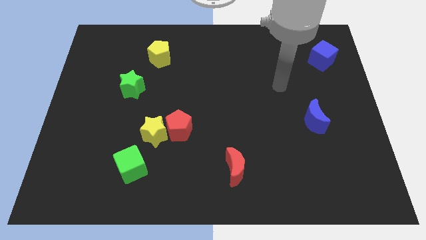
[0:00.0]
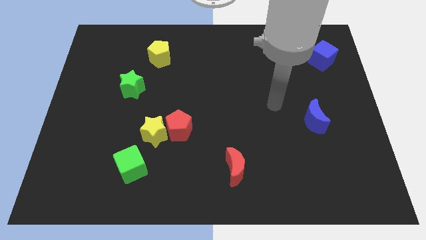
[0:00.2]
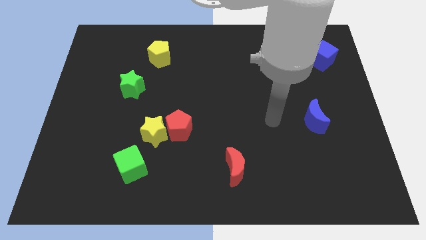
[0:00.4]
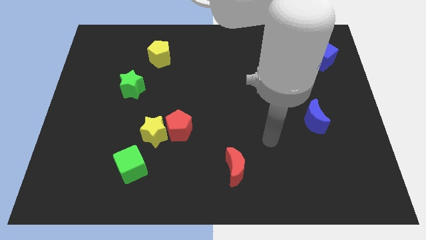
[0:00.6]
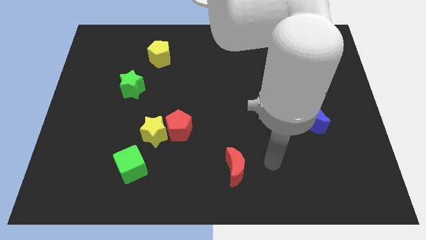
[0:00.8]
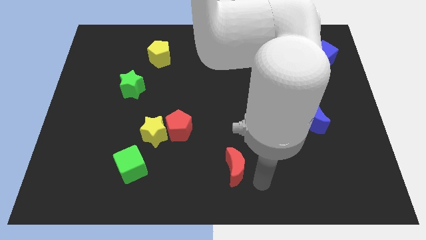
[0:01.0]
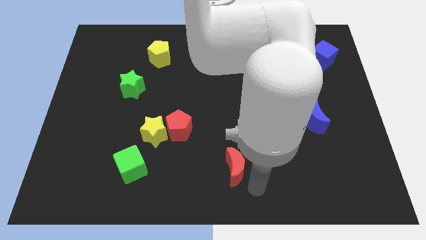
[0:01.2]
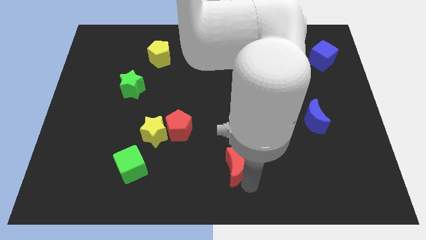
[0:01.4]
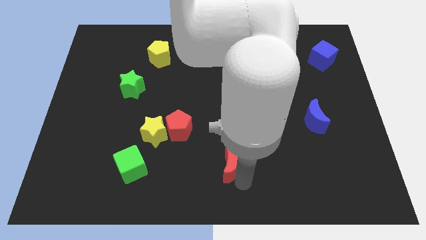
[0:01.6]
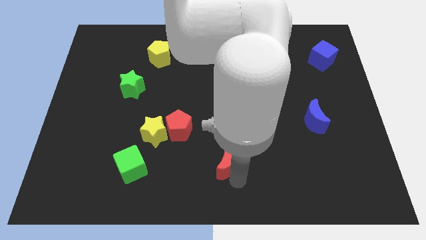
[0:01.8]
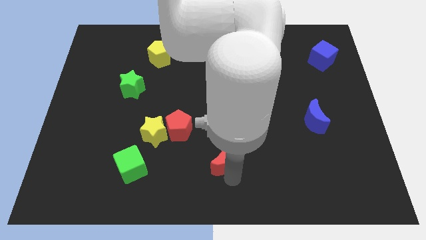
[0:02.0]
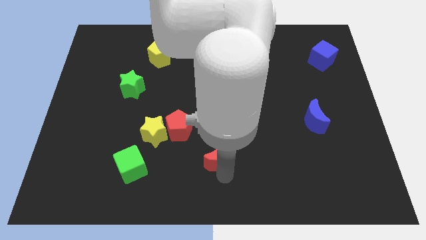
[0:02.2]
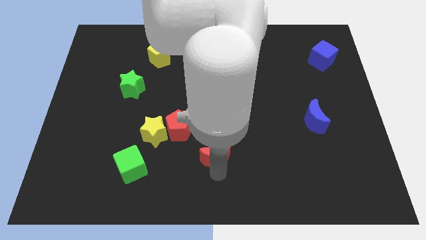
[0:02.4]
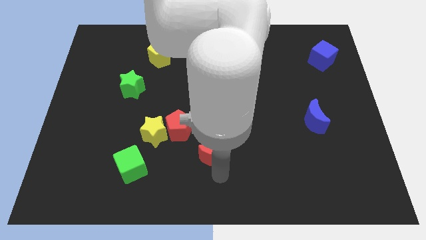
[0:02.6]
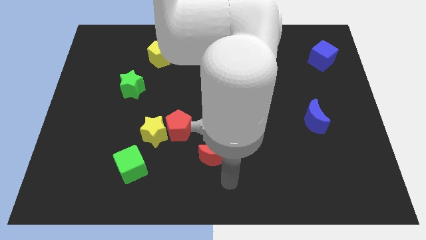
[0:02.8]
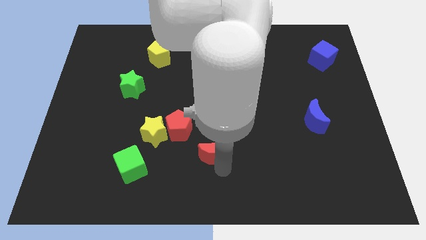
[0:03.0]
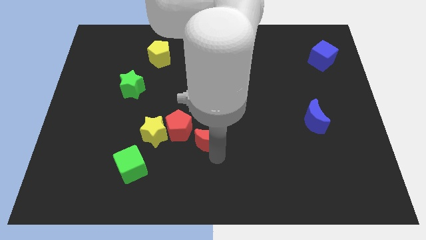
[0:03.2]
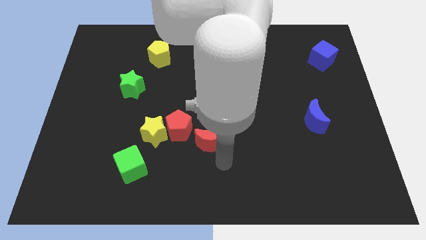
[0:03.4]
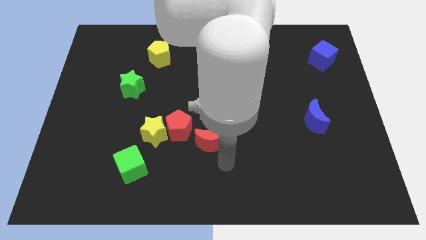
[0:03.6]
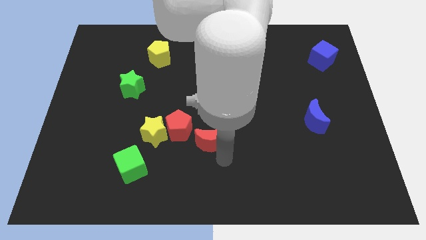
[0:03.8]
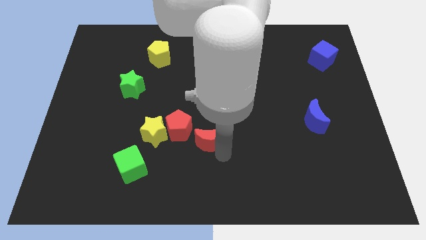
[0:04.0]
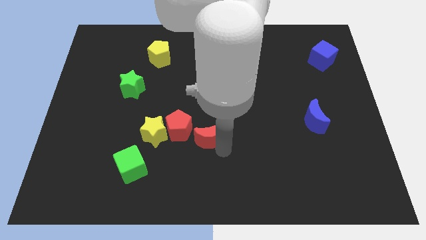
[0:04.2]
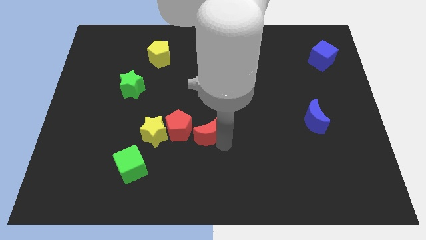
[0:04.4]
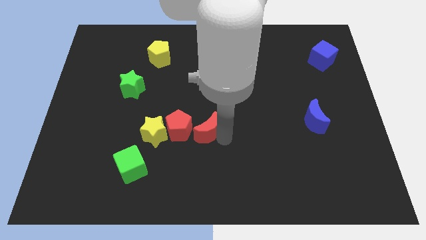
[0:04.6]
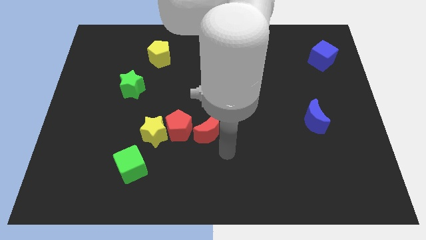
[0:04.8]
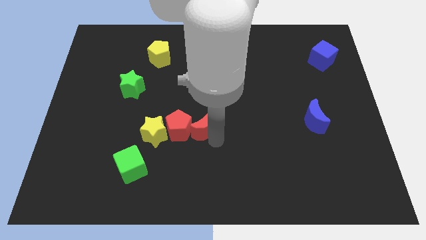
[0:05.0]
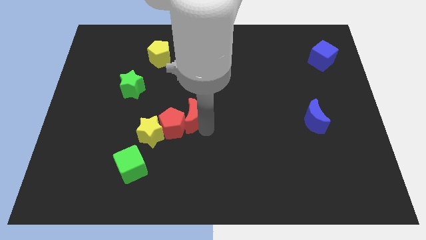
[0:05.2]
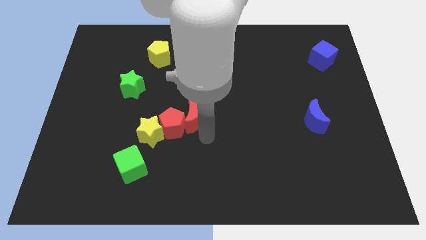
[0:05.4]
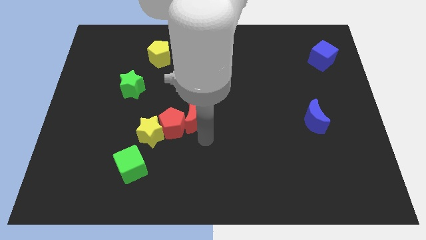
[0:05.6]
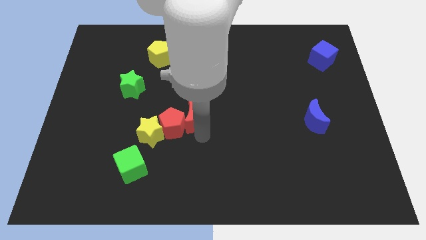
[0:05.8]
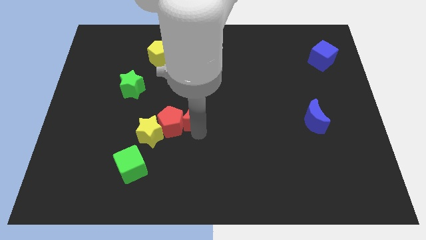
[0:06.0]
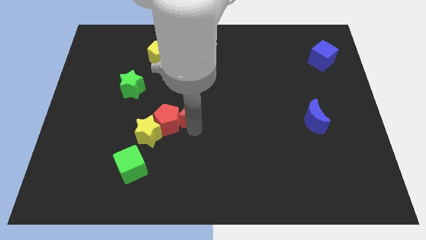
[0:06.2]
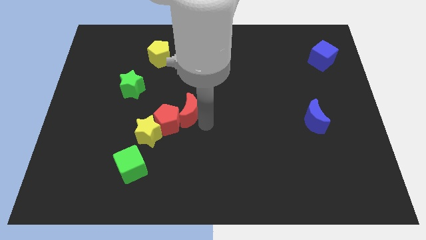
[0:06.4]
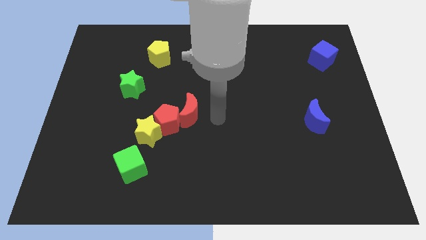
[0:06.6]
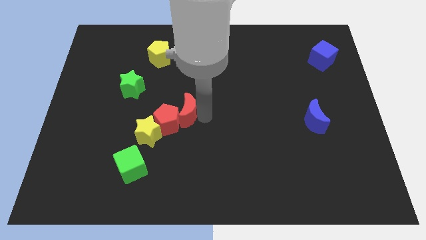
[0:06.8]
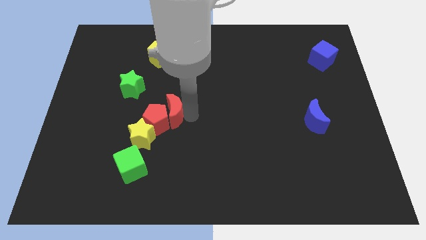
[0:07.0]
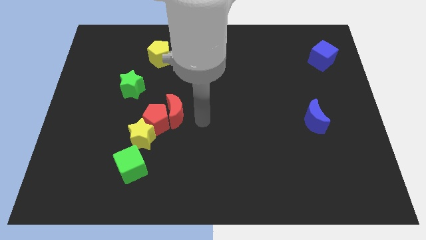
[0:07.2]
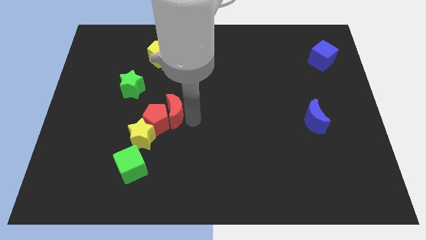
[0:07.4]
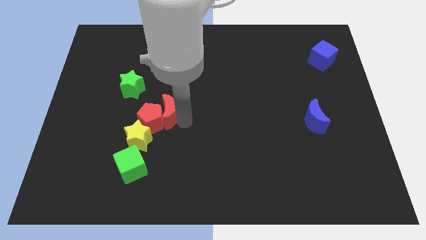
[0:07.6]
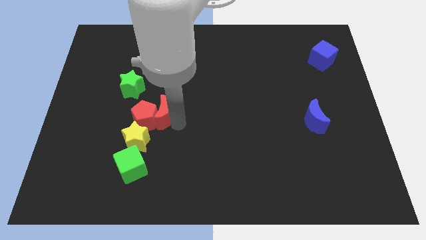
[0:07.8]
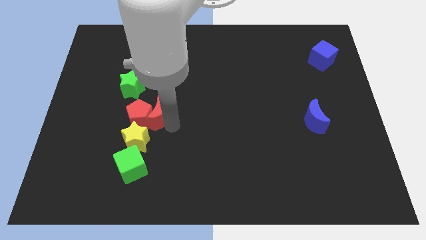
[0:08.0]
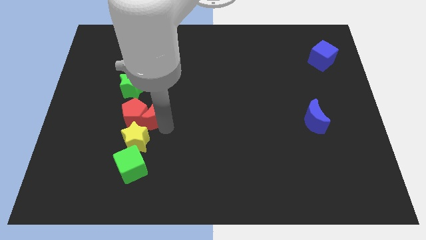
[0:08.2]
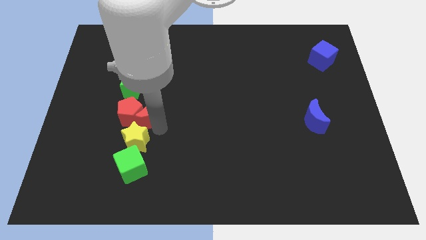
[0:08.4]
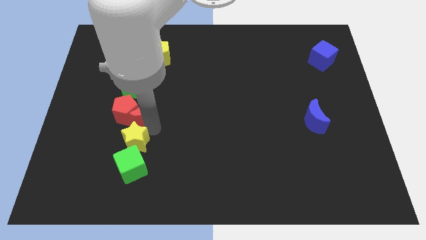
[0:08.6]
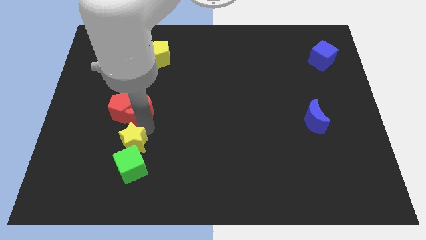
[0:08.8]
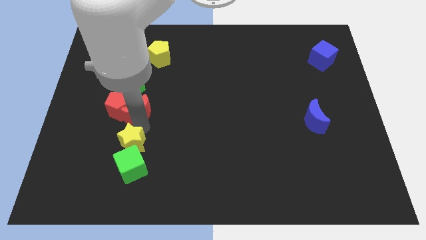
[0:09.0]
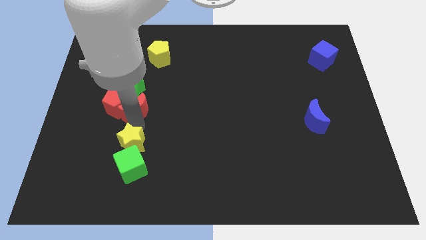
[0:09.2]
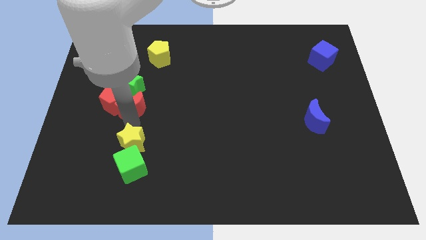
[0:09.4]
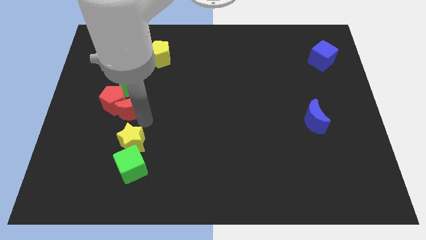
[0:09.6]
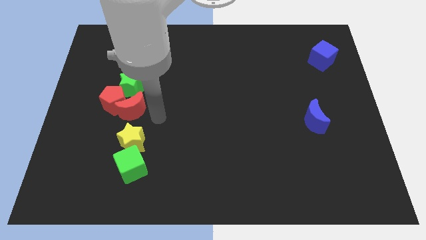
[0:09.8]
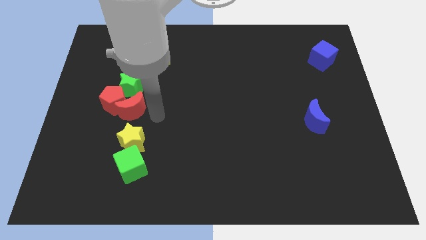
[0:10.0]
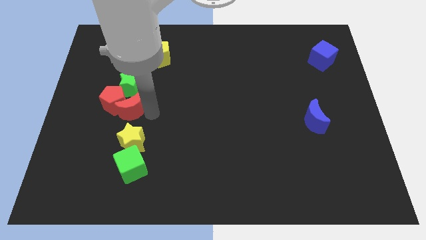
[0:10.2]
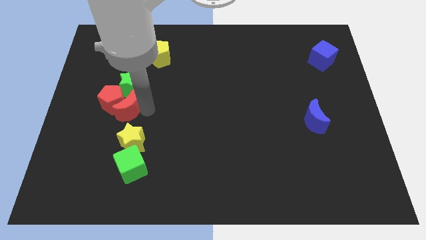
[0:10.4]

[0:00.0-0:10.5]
push the red moon diagonally down and to the left of the green star

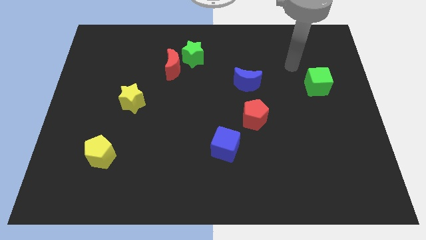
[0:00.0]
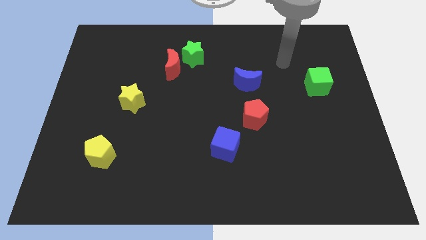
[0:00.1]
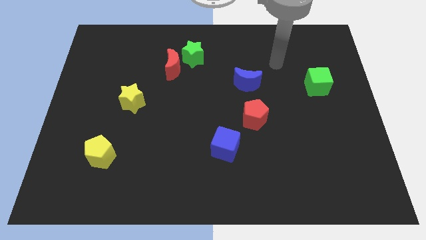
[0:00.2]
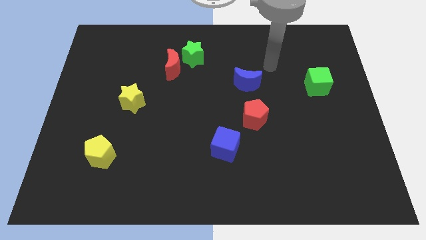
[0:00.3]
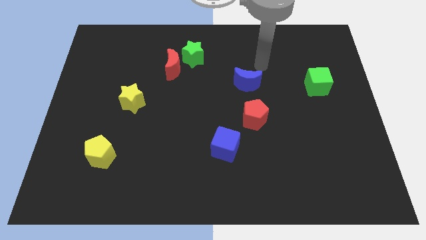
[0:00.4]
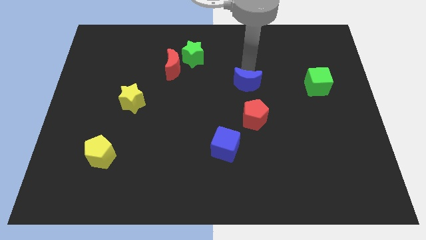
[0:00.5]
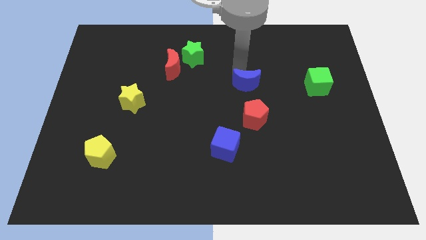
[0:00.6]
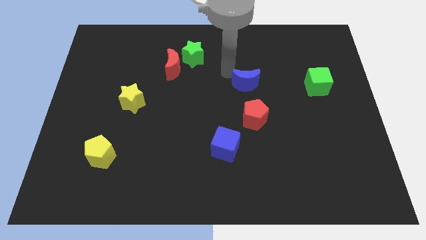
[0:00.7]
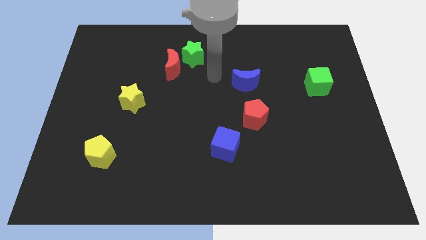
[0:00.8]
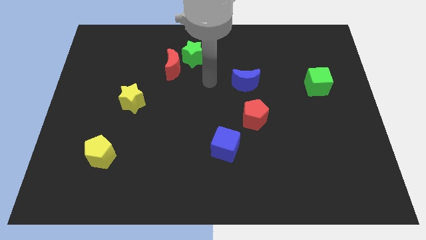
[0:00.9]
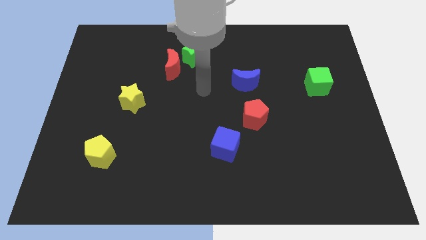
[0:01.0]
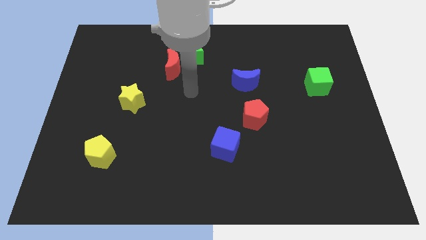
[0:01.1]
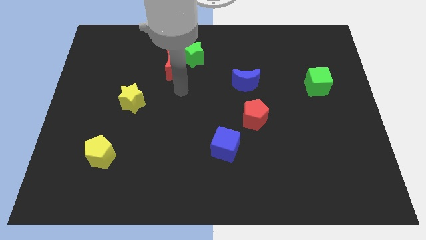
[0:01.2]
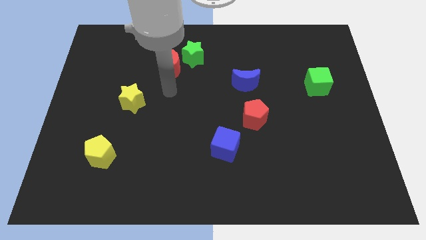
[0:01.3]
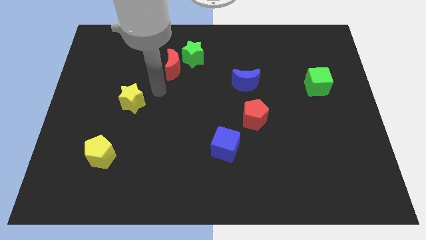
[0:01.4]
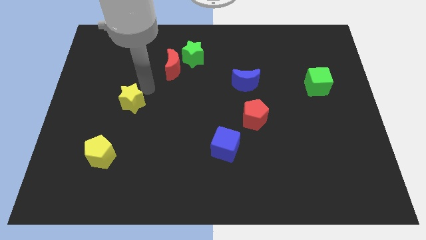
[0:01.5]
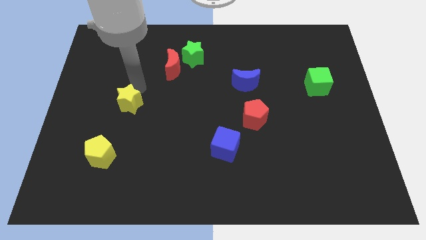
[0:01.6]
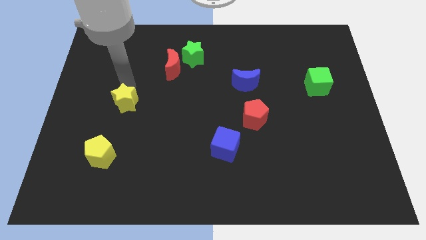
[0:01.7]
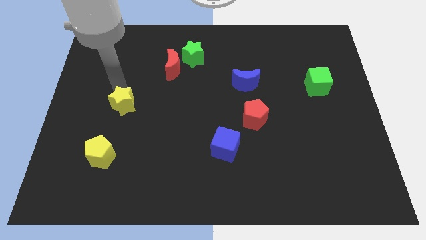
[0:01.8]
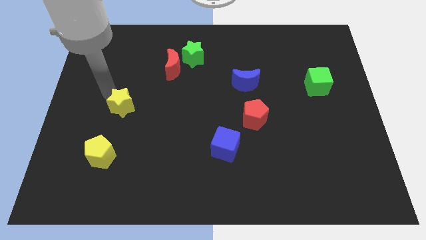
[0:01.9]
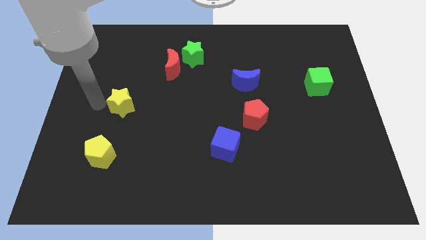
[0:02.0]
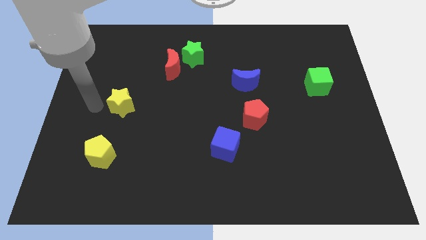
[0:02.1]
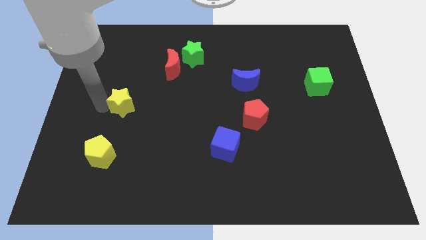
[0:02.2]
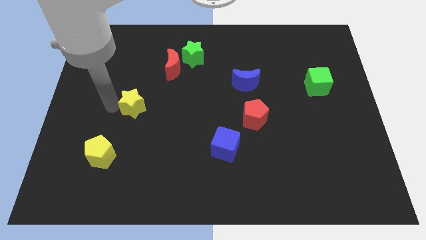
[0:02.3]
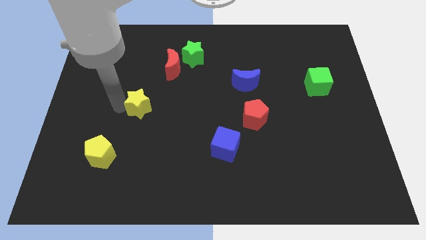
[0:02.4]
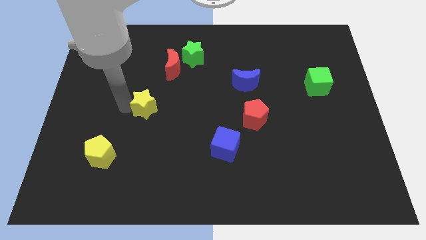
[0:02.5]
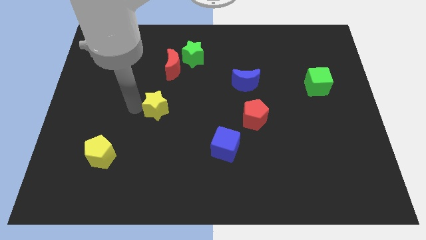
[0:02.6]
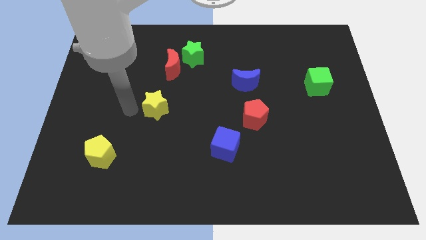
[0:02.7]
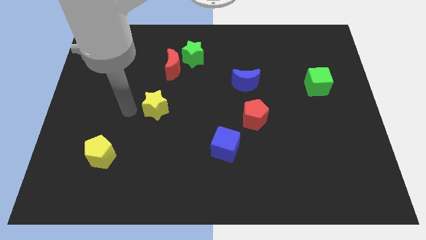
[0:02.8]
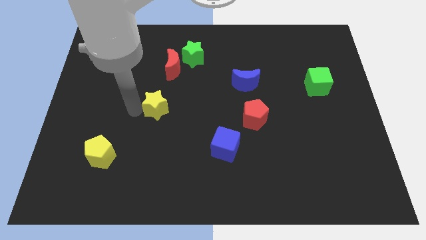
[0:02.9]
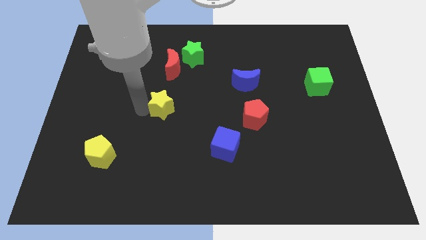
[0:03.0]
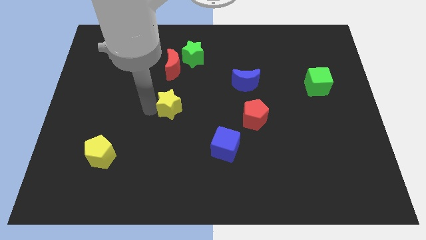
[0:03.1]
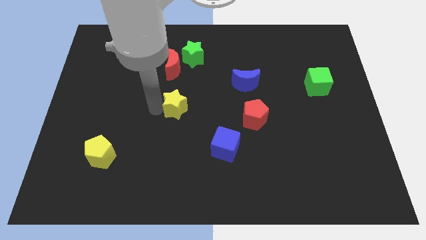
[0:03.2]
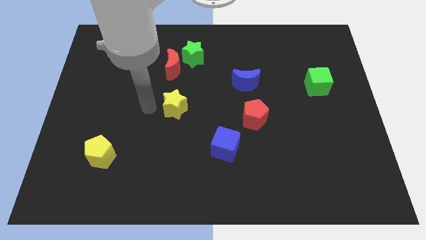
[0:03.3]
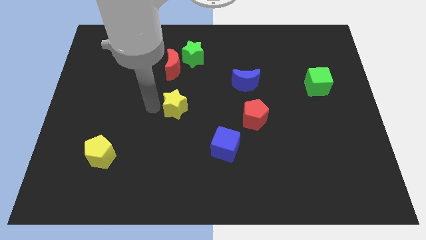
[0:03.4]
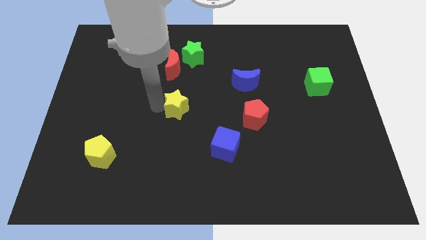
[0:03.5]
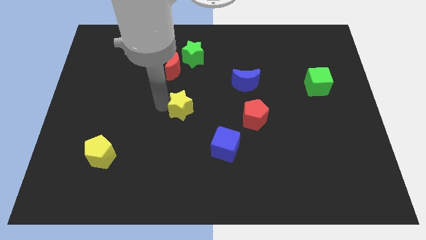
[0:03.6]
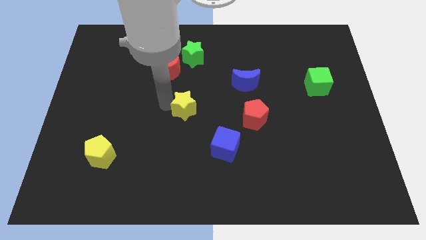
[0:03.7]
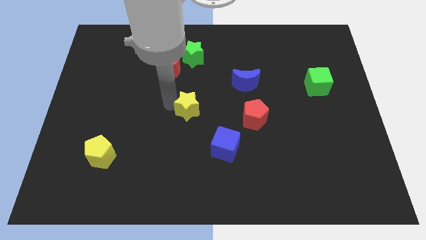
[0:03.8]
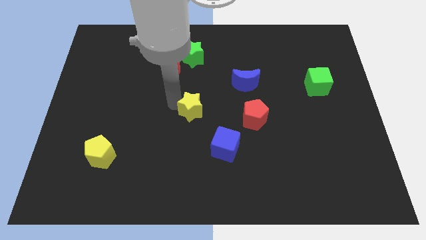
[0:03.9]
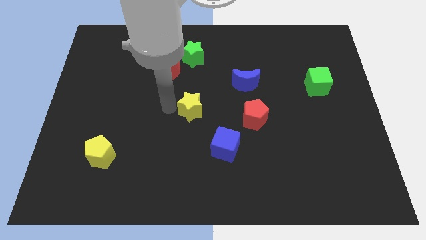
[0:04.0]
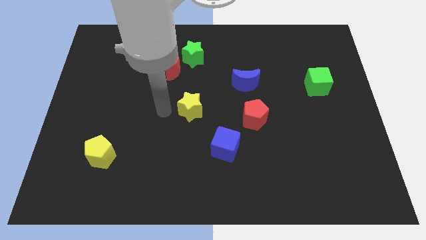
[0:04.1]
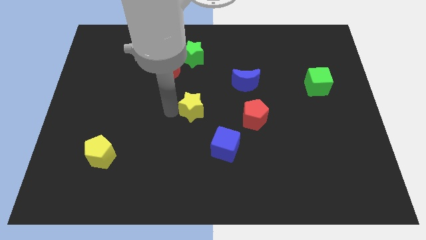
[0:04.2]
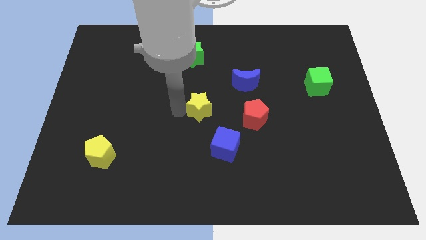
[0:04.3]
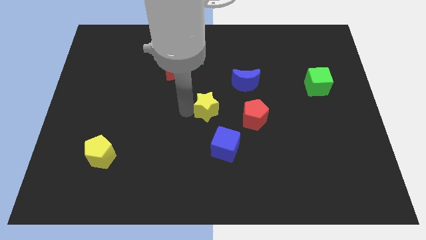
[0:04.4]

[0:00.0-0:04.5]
put the yellow star to the top of the blue cube
